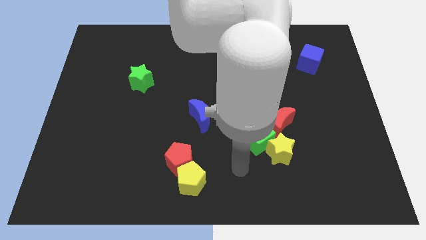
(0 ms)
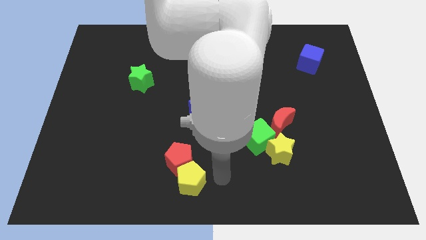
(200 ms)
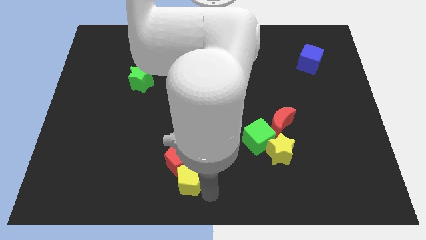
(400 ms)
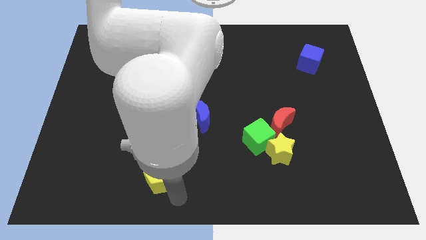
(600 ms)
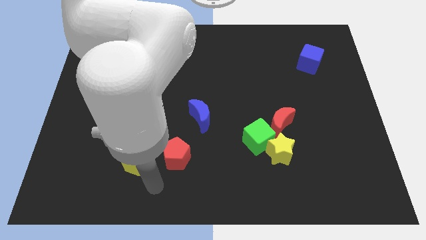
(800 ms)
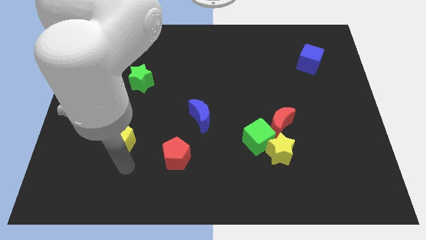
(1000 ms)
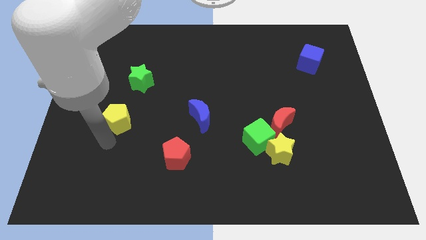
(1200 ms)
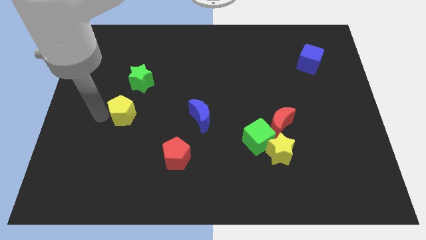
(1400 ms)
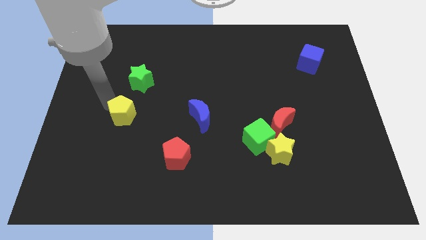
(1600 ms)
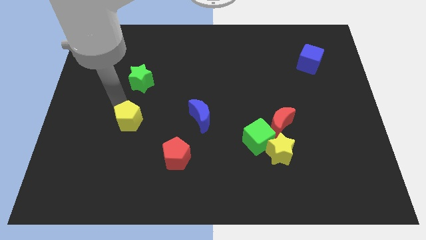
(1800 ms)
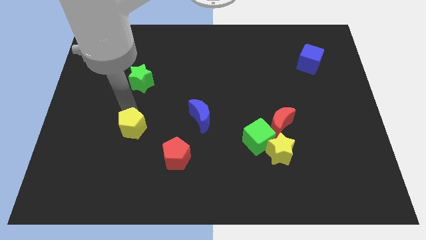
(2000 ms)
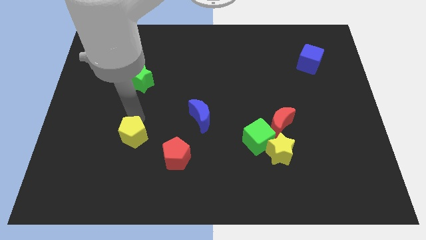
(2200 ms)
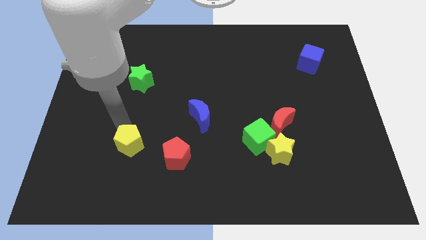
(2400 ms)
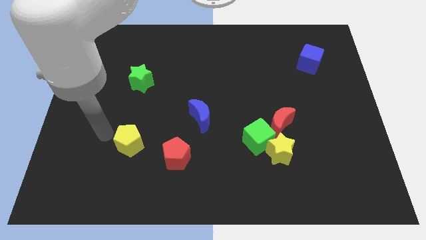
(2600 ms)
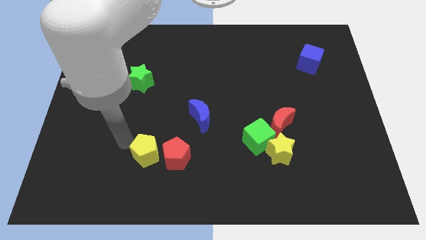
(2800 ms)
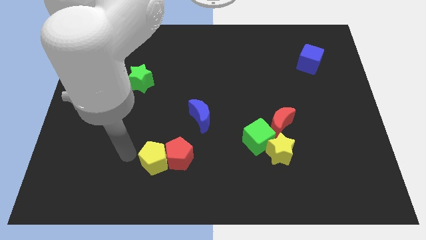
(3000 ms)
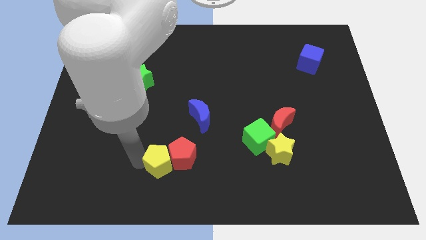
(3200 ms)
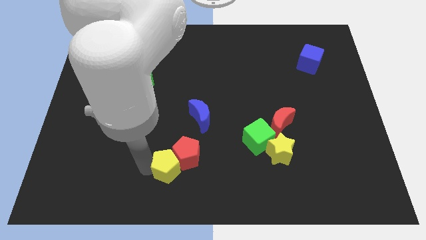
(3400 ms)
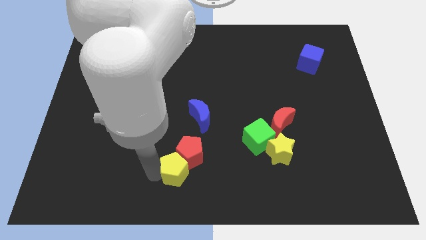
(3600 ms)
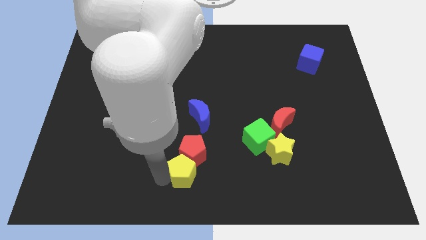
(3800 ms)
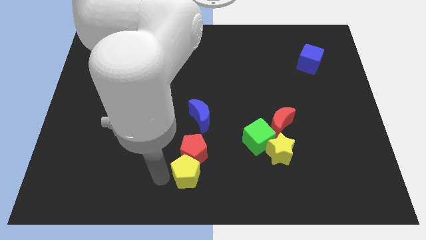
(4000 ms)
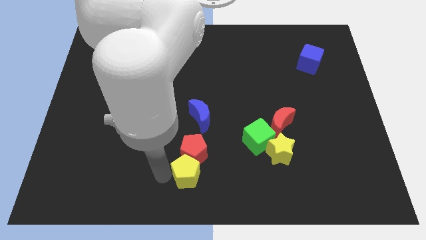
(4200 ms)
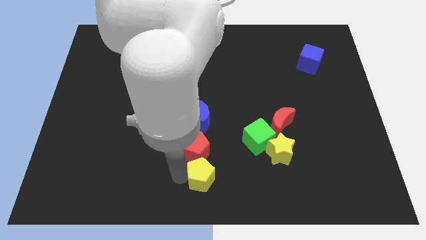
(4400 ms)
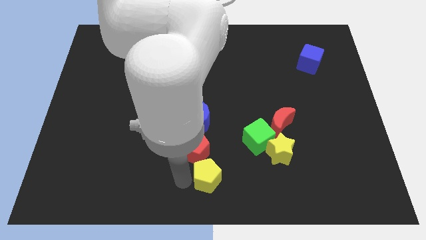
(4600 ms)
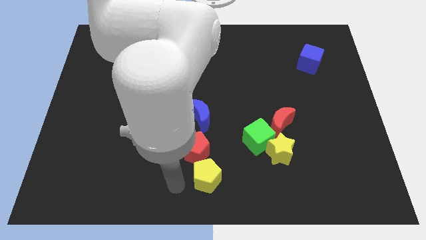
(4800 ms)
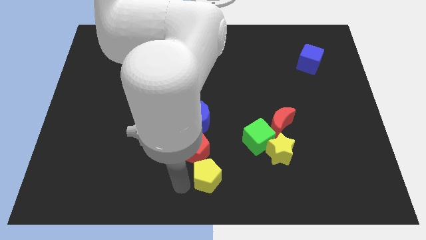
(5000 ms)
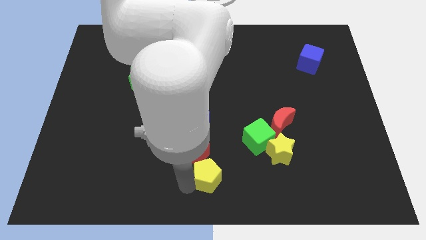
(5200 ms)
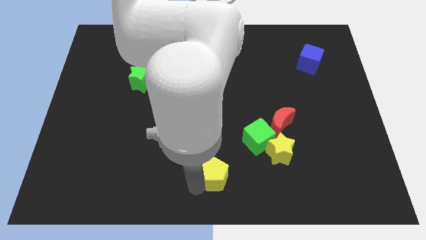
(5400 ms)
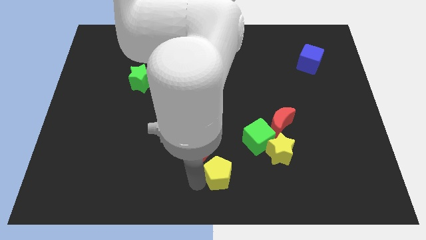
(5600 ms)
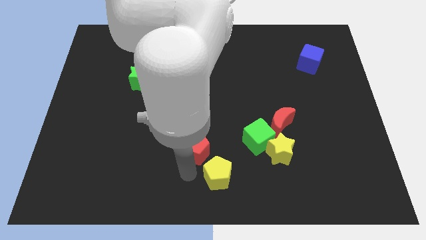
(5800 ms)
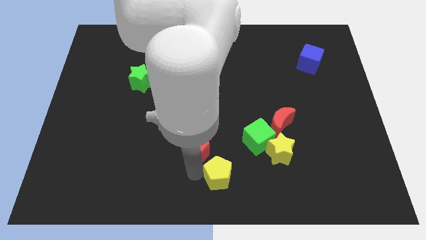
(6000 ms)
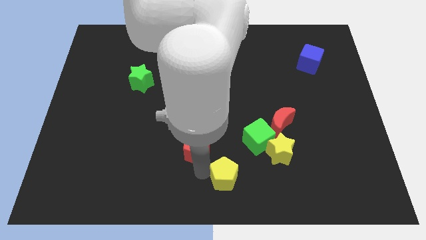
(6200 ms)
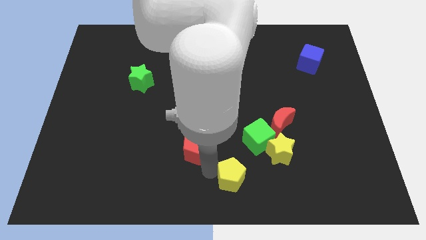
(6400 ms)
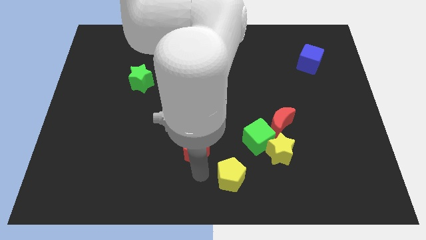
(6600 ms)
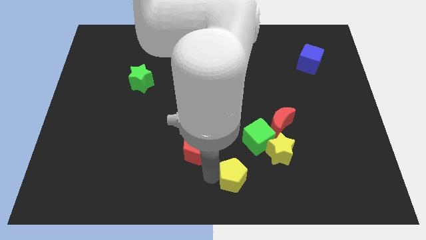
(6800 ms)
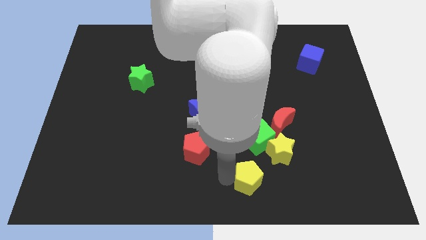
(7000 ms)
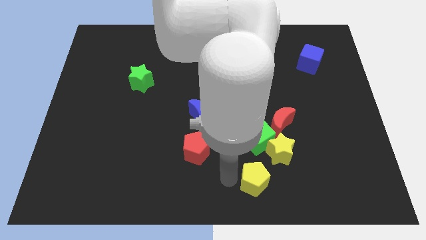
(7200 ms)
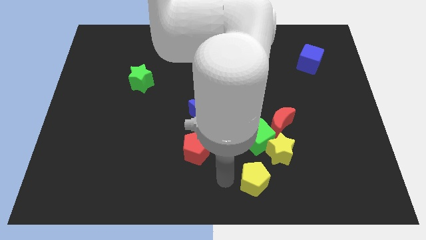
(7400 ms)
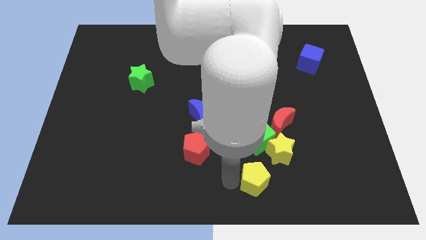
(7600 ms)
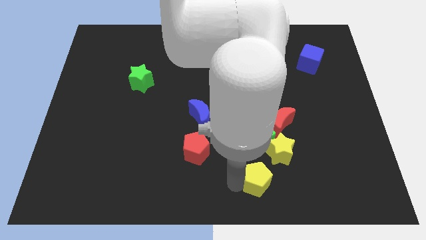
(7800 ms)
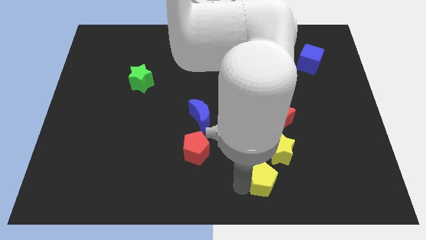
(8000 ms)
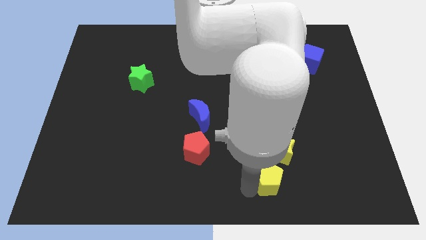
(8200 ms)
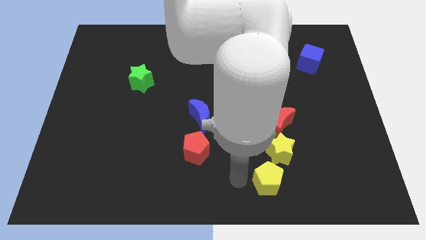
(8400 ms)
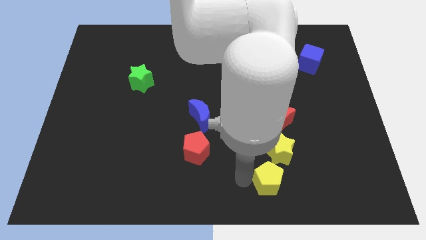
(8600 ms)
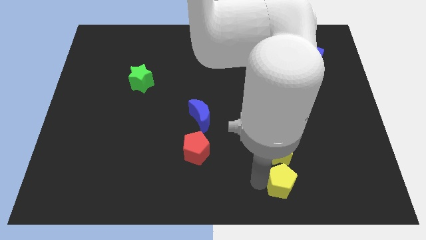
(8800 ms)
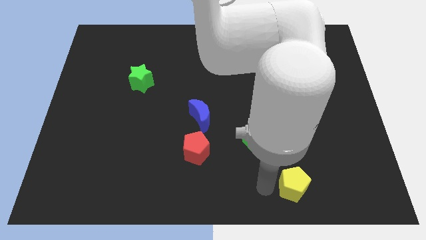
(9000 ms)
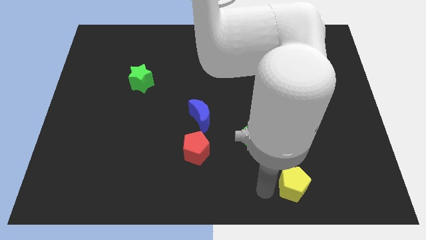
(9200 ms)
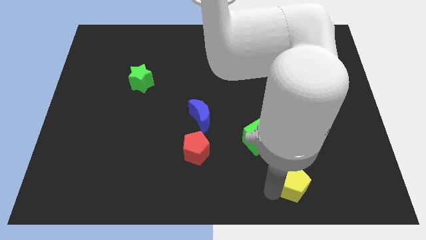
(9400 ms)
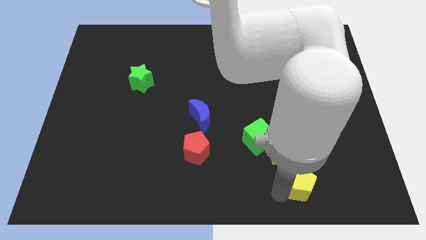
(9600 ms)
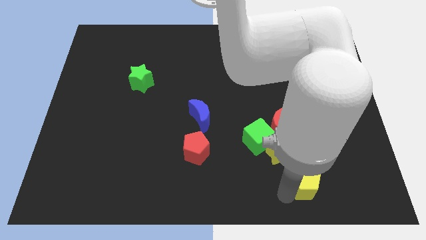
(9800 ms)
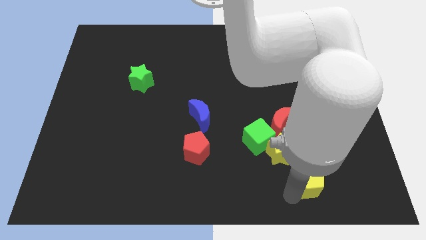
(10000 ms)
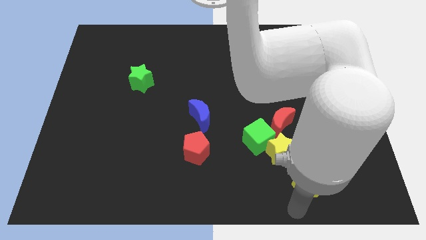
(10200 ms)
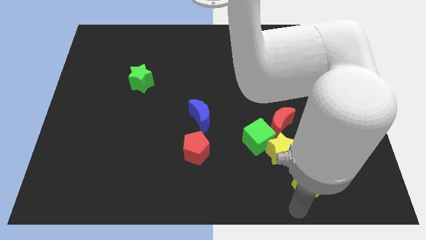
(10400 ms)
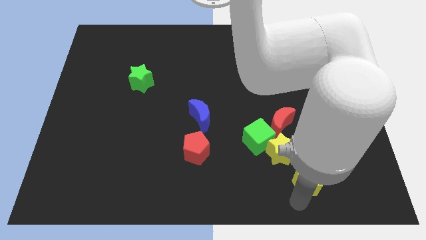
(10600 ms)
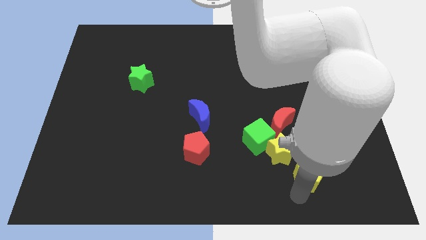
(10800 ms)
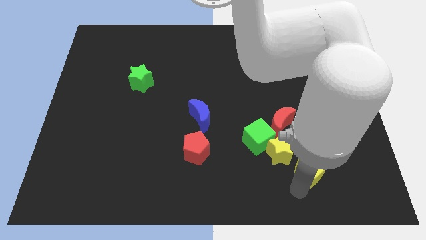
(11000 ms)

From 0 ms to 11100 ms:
put the yellow pentagon right of the yellow star

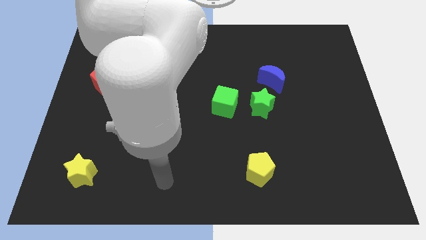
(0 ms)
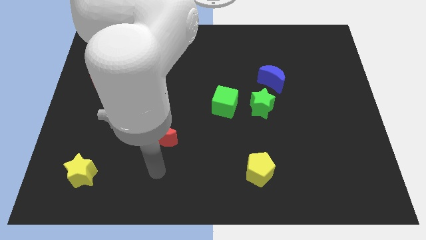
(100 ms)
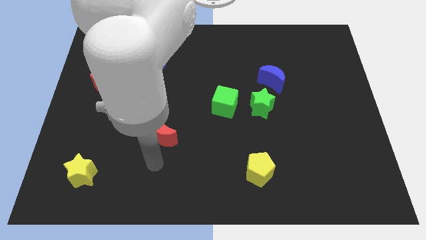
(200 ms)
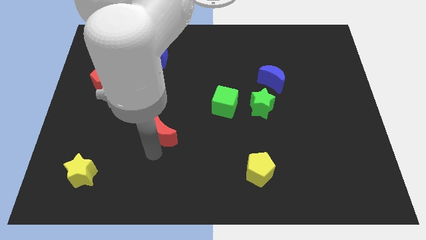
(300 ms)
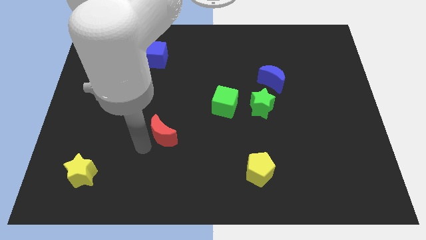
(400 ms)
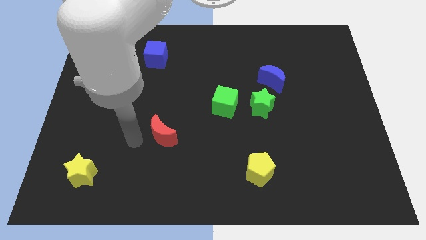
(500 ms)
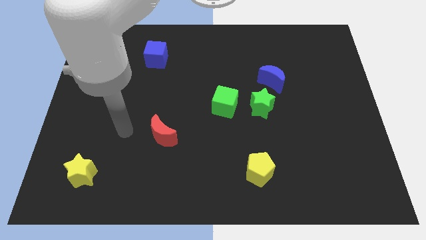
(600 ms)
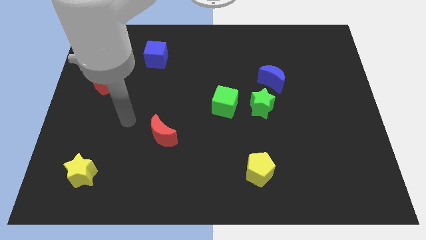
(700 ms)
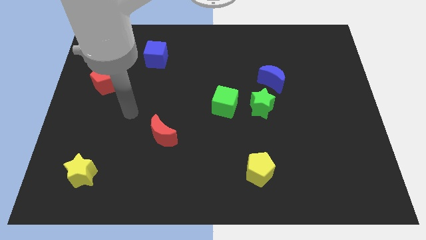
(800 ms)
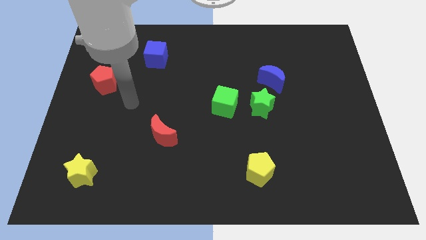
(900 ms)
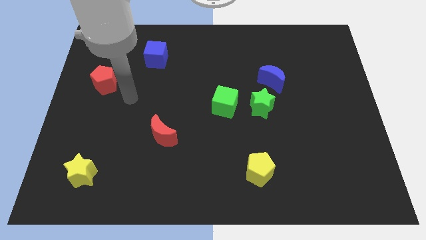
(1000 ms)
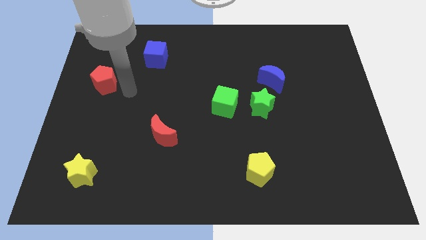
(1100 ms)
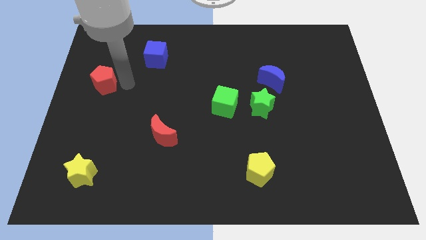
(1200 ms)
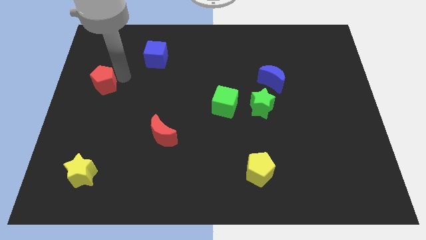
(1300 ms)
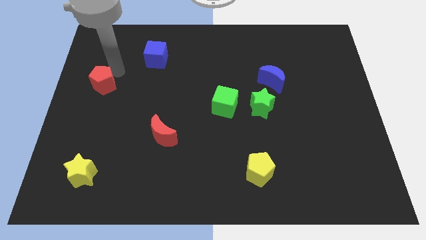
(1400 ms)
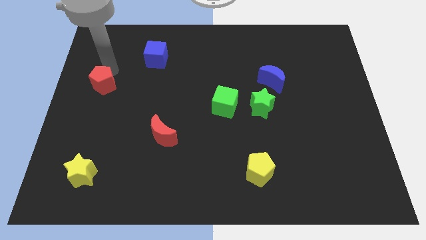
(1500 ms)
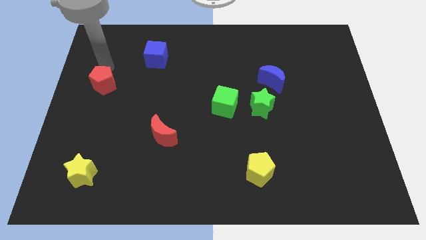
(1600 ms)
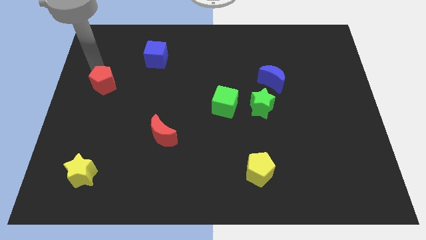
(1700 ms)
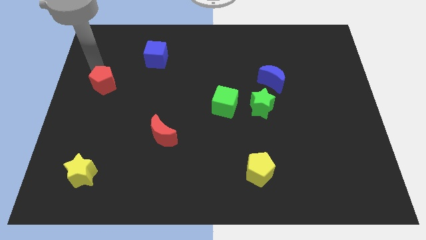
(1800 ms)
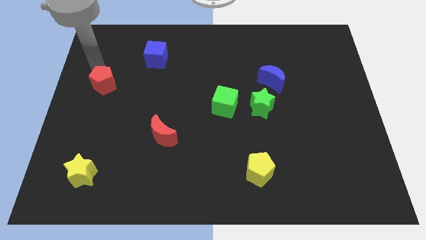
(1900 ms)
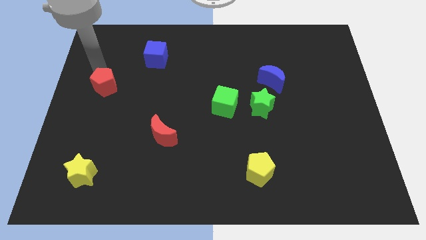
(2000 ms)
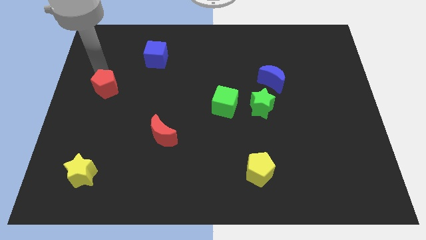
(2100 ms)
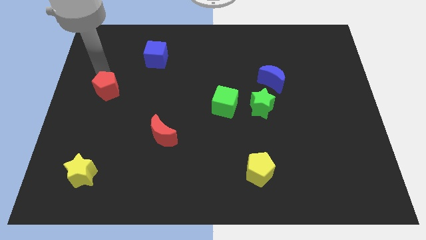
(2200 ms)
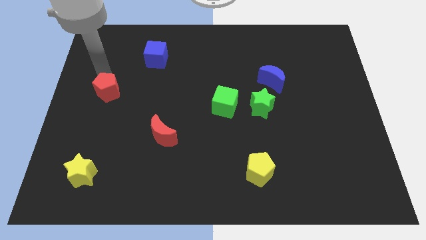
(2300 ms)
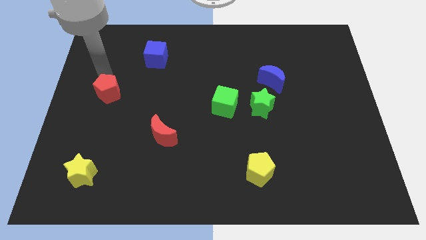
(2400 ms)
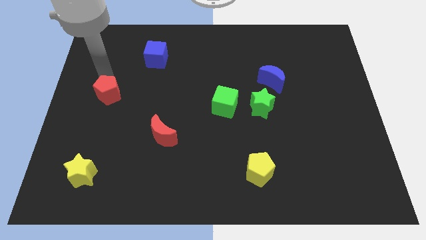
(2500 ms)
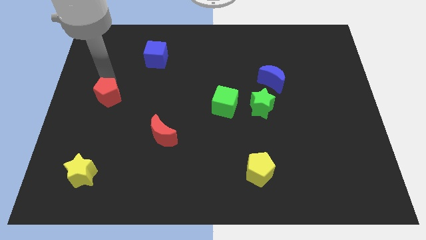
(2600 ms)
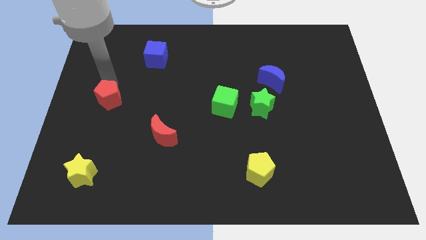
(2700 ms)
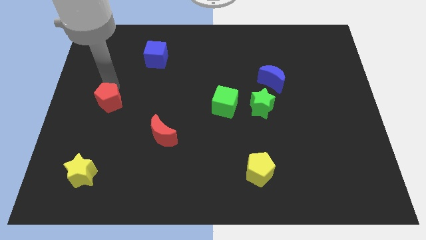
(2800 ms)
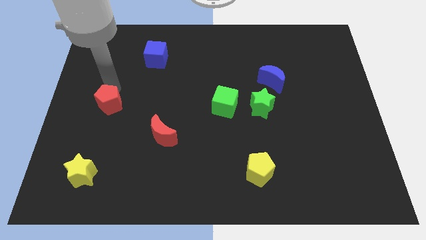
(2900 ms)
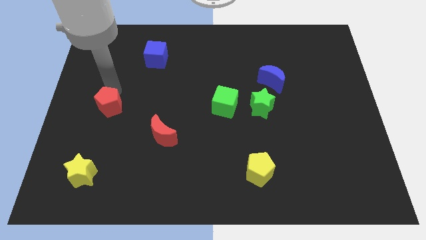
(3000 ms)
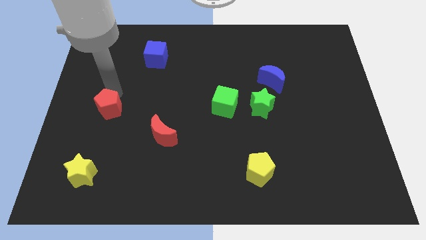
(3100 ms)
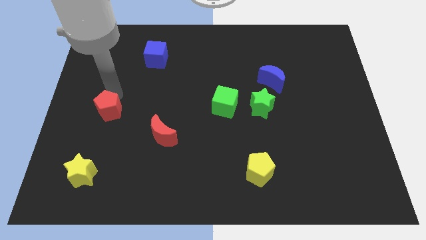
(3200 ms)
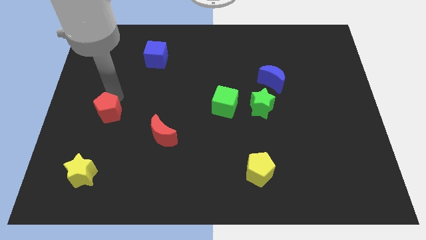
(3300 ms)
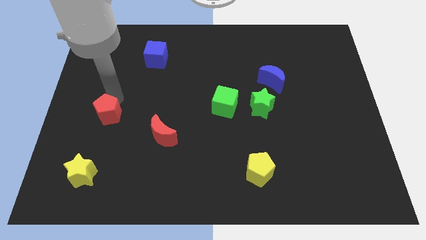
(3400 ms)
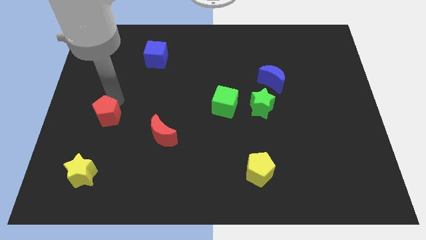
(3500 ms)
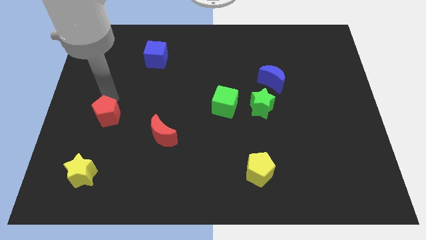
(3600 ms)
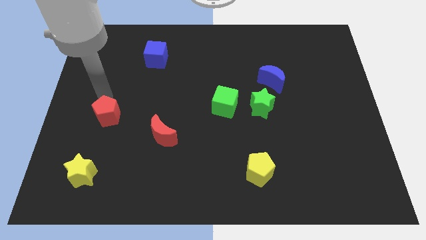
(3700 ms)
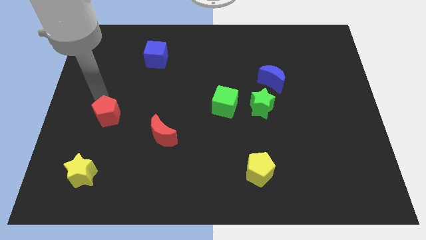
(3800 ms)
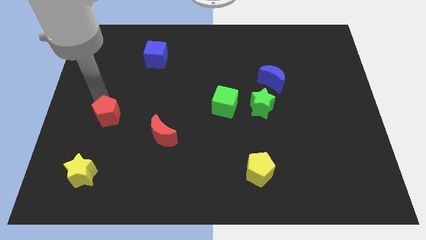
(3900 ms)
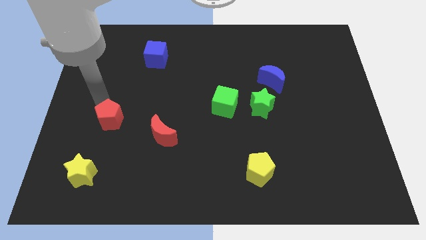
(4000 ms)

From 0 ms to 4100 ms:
push the red pentagon to the left of the red moon
